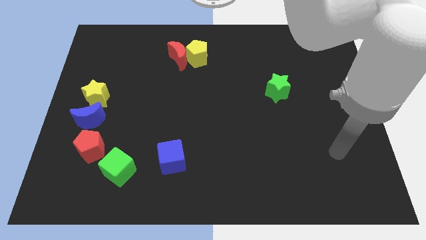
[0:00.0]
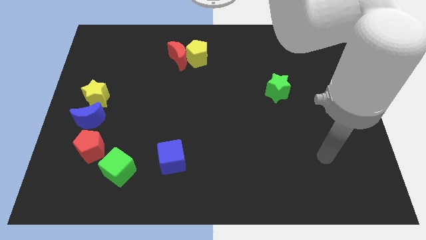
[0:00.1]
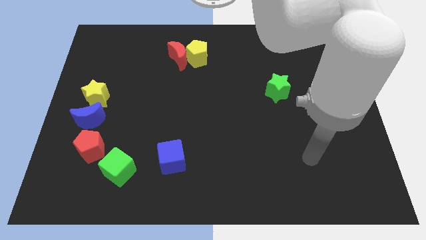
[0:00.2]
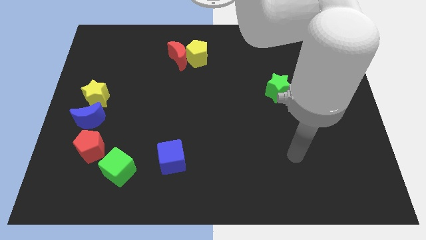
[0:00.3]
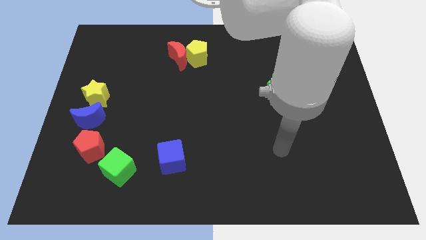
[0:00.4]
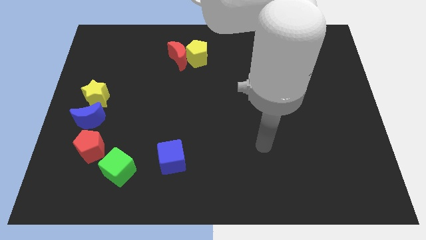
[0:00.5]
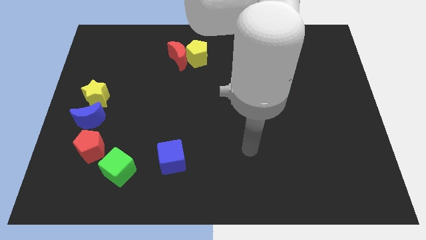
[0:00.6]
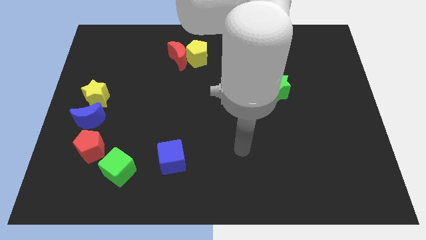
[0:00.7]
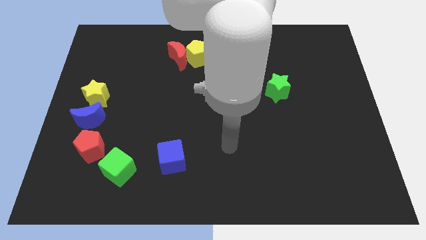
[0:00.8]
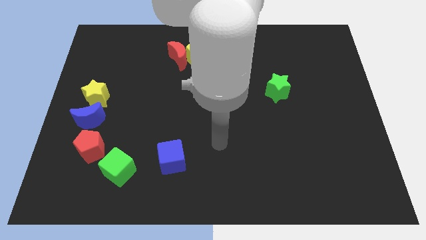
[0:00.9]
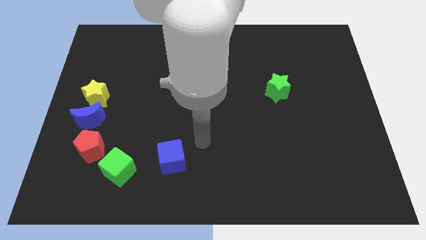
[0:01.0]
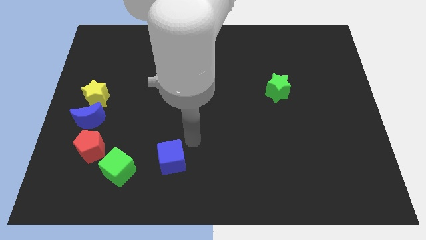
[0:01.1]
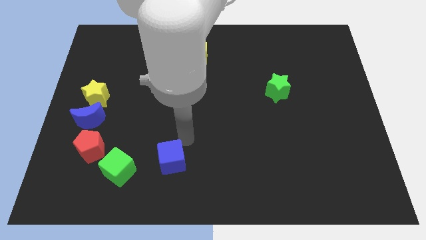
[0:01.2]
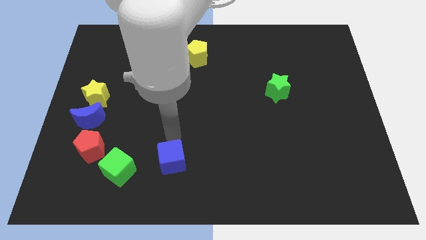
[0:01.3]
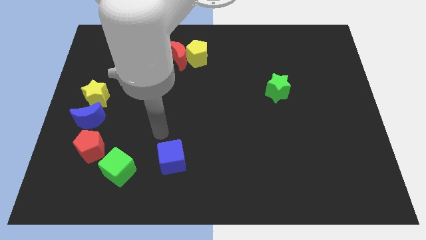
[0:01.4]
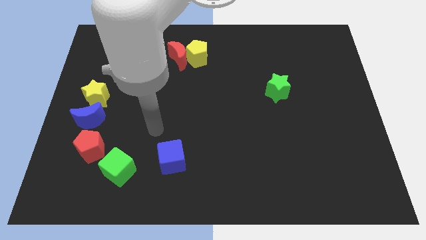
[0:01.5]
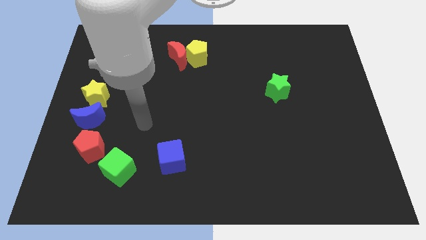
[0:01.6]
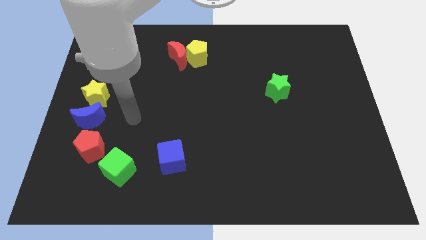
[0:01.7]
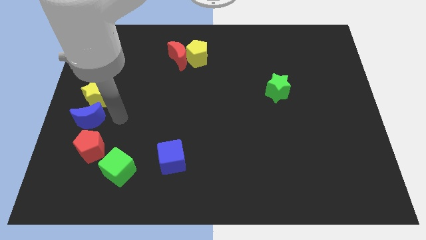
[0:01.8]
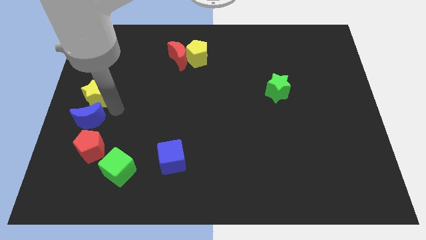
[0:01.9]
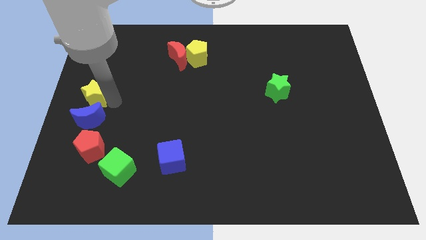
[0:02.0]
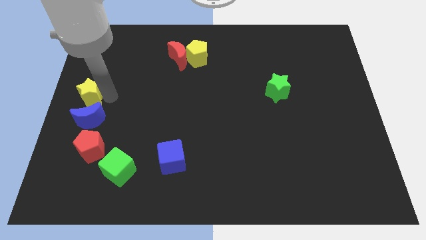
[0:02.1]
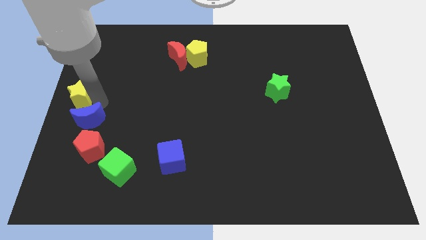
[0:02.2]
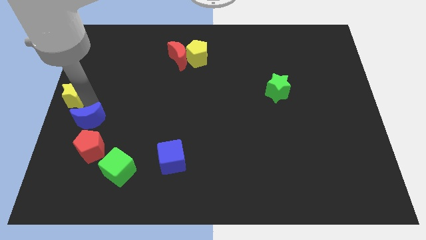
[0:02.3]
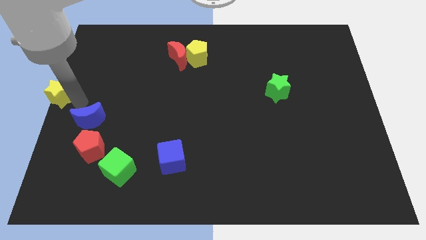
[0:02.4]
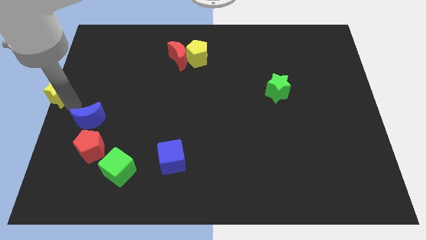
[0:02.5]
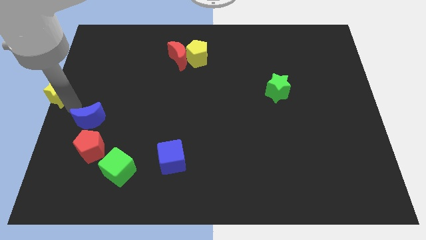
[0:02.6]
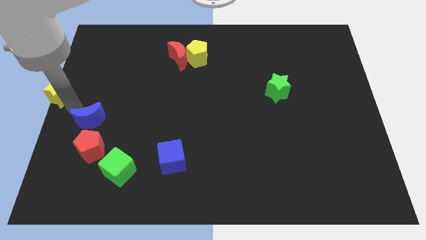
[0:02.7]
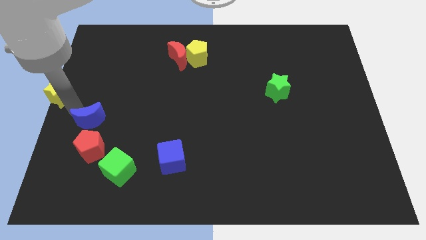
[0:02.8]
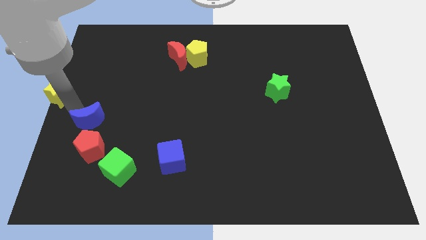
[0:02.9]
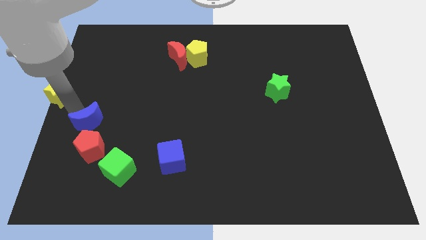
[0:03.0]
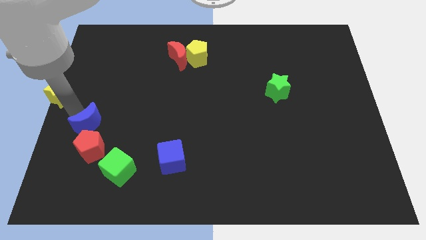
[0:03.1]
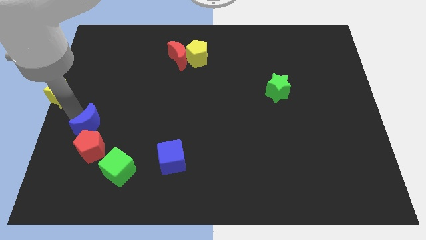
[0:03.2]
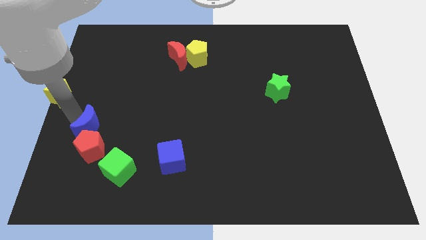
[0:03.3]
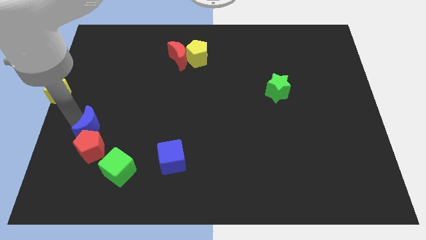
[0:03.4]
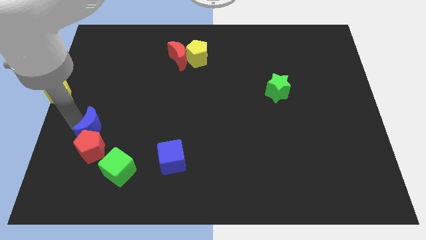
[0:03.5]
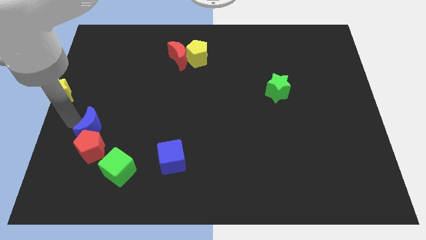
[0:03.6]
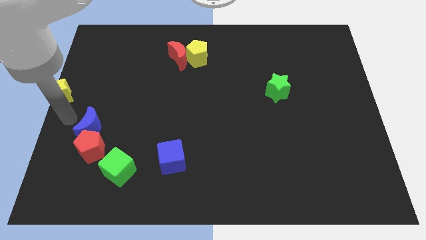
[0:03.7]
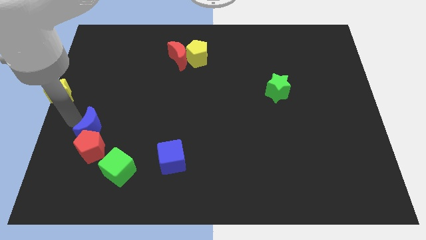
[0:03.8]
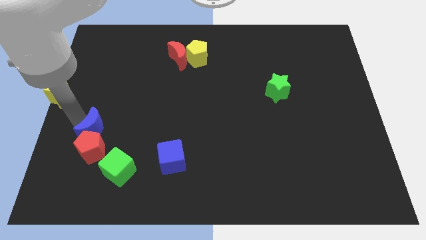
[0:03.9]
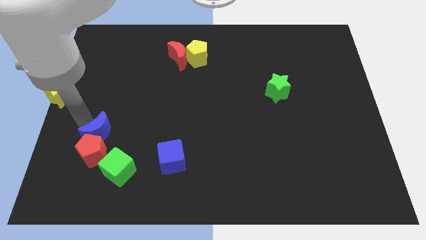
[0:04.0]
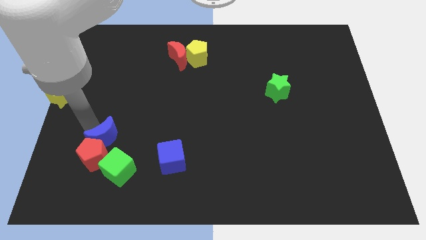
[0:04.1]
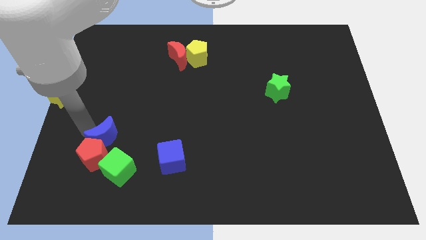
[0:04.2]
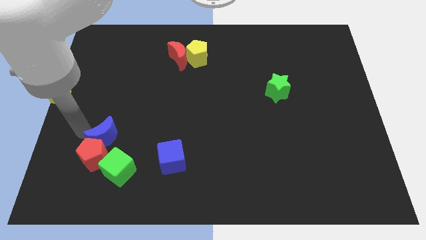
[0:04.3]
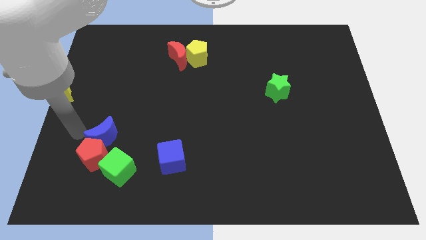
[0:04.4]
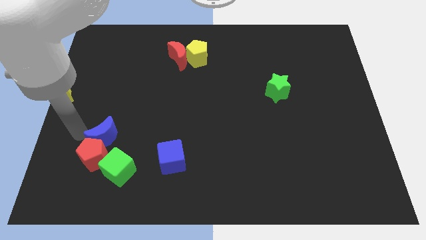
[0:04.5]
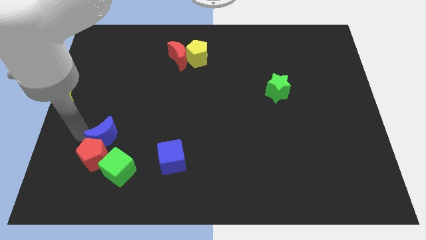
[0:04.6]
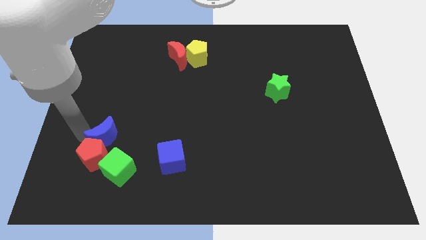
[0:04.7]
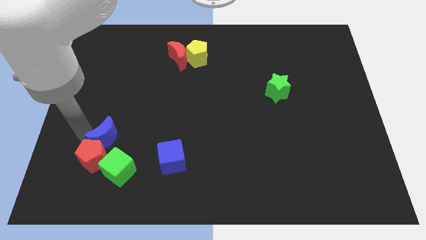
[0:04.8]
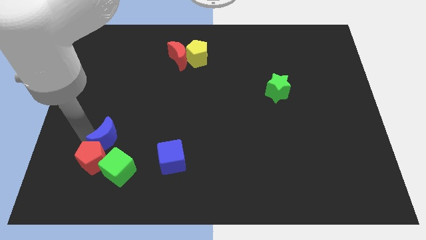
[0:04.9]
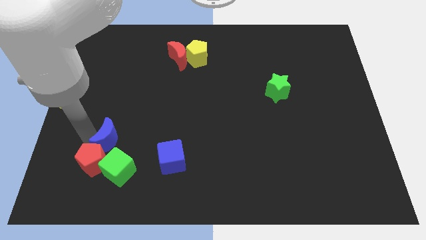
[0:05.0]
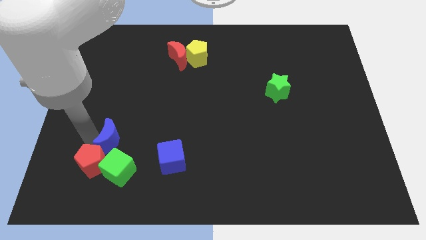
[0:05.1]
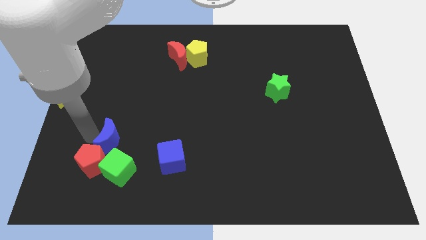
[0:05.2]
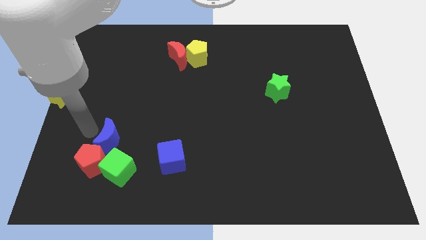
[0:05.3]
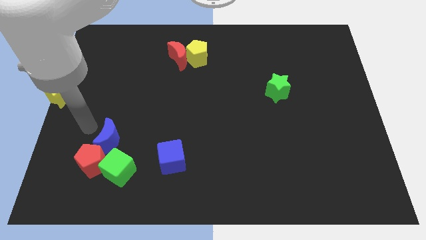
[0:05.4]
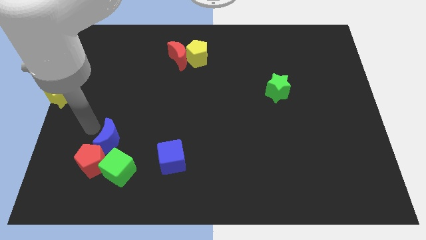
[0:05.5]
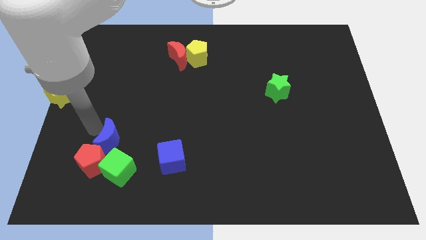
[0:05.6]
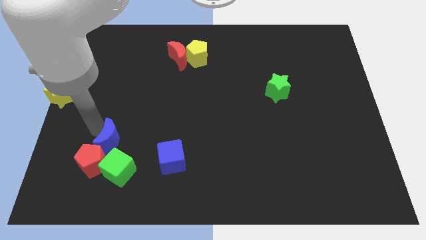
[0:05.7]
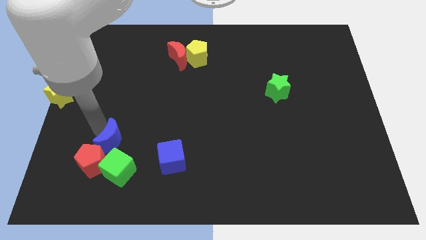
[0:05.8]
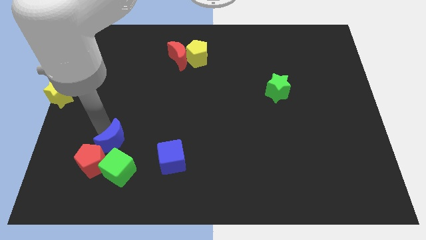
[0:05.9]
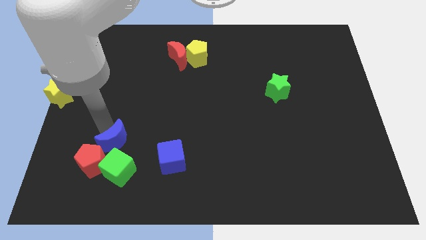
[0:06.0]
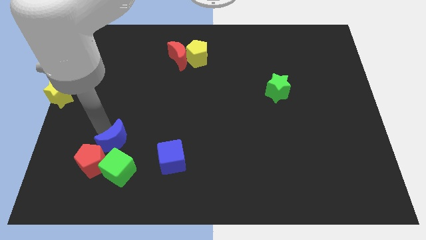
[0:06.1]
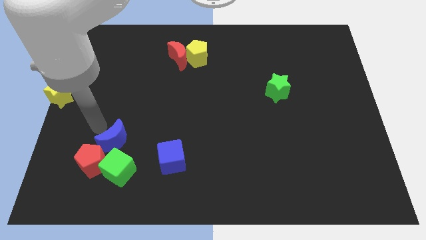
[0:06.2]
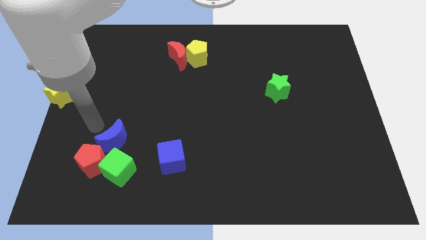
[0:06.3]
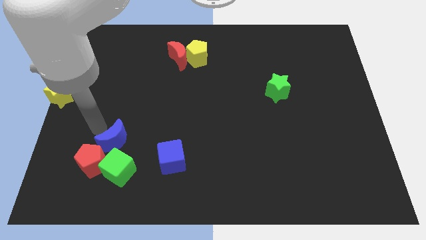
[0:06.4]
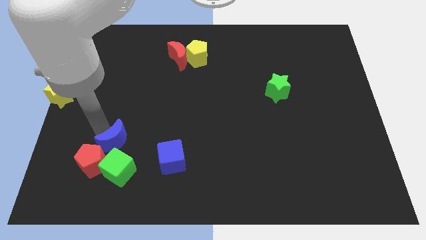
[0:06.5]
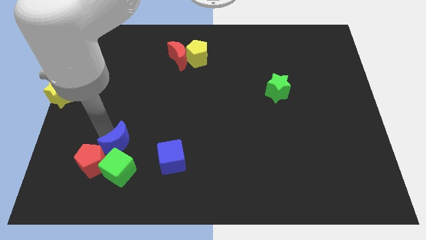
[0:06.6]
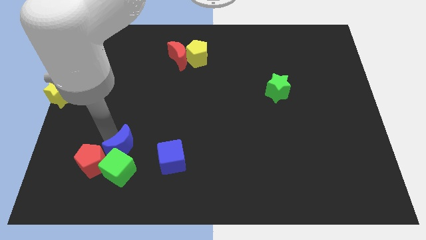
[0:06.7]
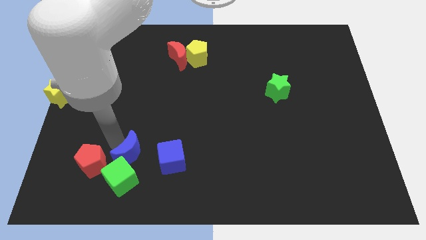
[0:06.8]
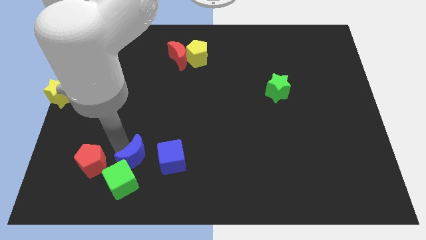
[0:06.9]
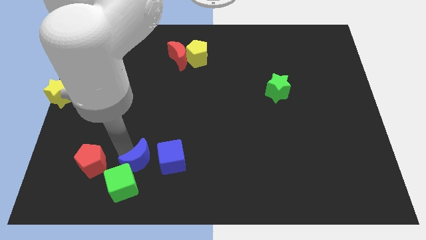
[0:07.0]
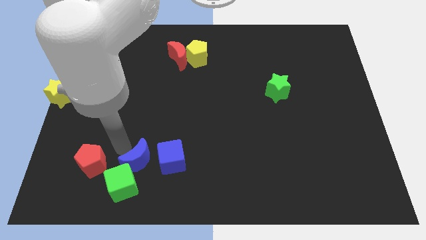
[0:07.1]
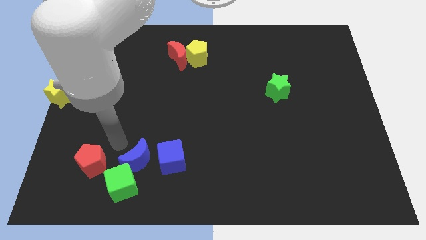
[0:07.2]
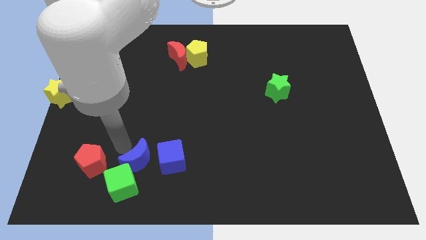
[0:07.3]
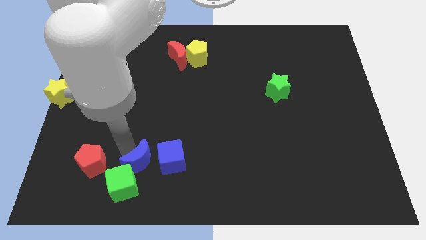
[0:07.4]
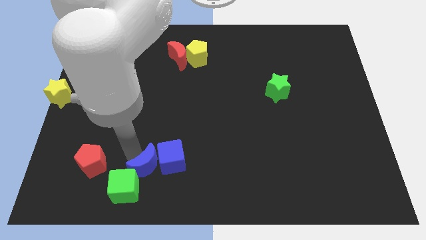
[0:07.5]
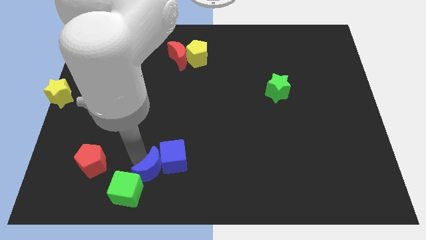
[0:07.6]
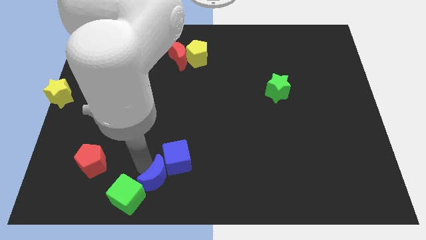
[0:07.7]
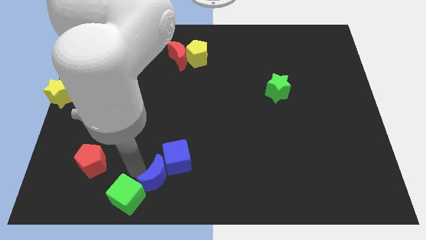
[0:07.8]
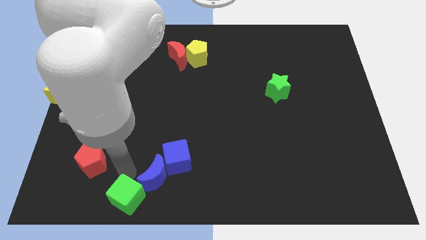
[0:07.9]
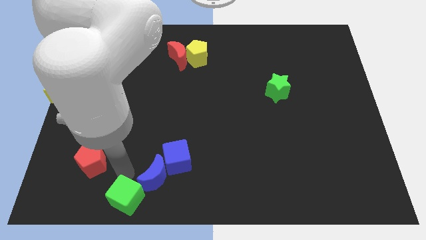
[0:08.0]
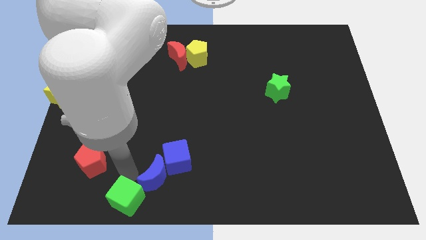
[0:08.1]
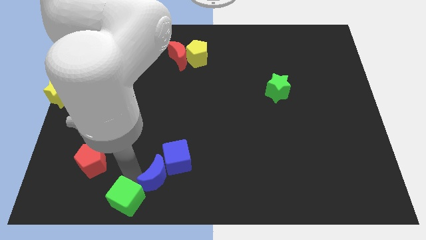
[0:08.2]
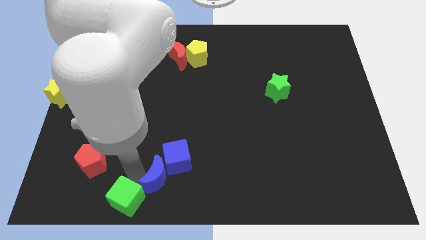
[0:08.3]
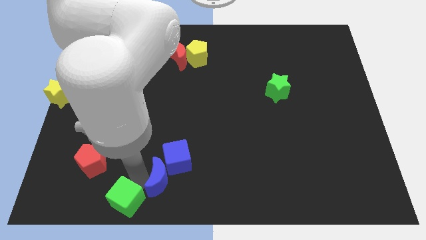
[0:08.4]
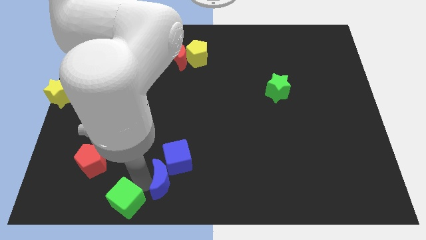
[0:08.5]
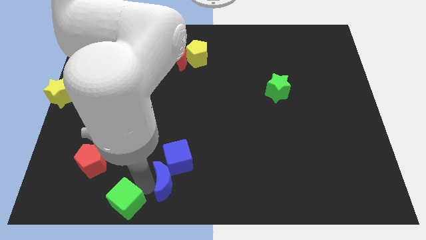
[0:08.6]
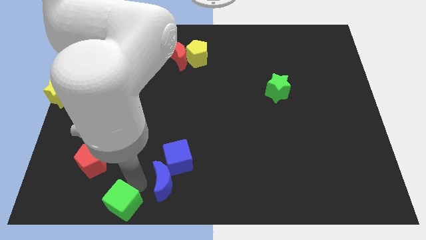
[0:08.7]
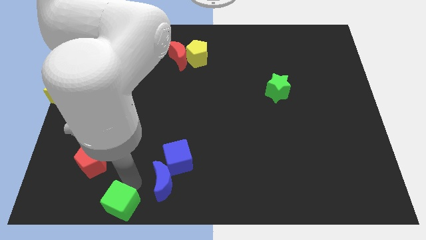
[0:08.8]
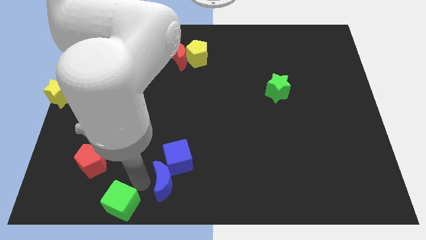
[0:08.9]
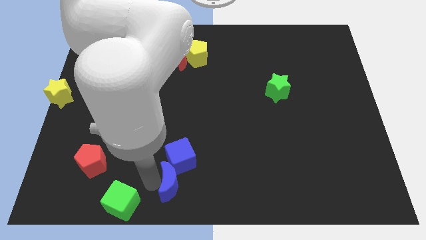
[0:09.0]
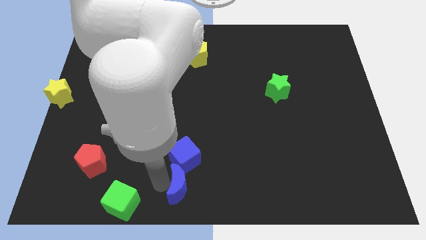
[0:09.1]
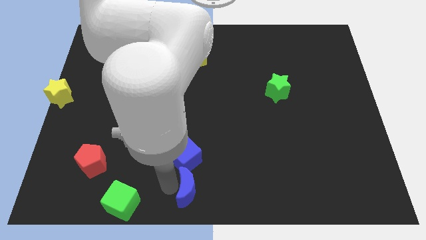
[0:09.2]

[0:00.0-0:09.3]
put the blue moon diagonally down and to the right of the blue cube
